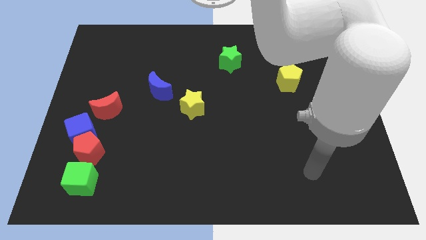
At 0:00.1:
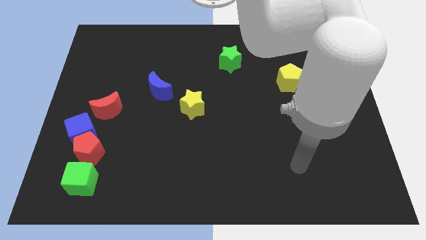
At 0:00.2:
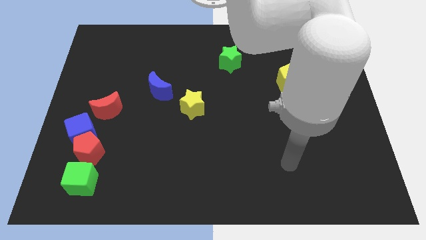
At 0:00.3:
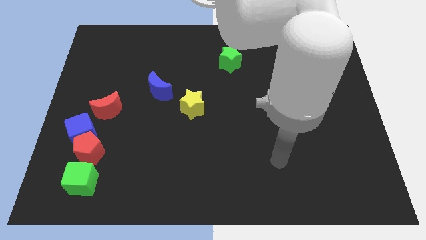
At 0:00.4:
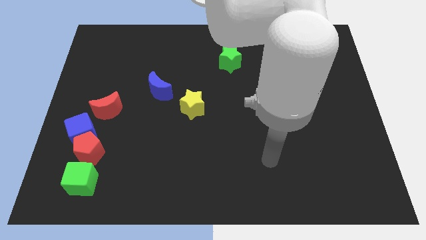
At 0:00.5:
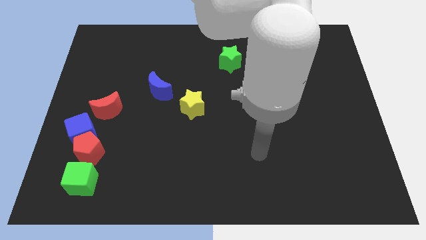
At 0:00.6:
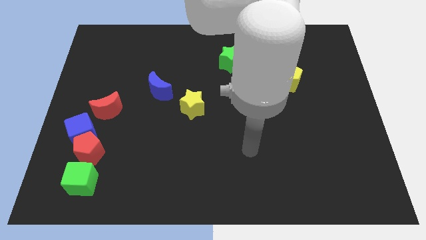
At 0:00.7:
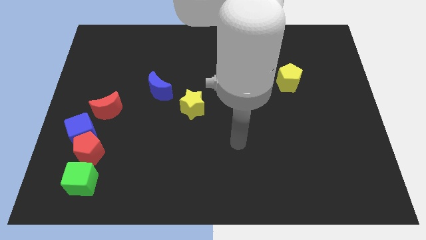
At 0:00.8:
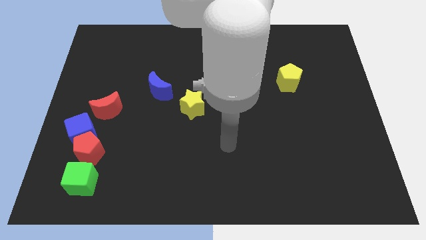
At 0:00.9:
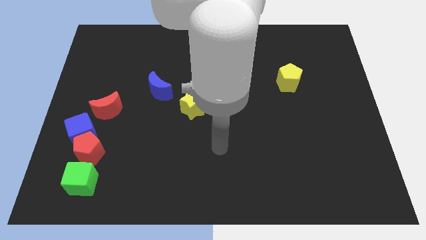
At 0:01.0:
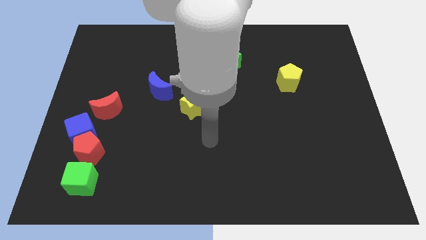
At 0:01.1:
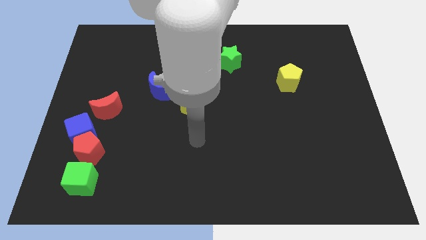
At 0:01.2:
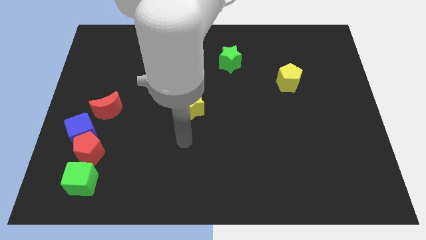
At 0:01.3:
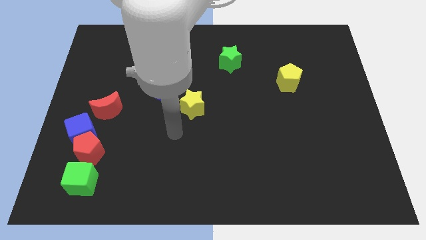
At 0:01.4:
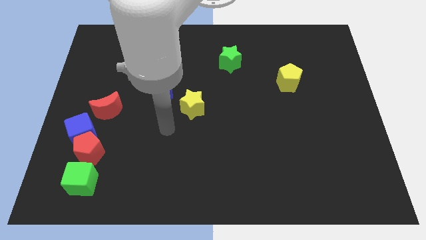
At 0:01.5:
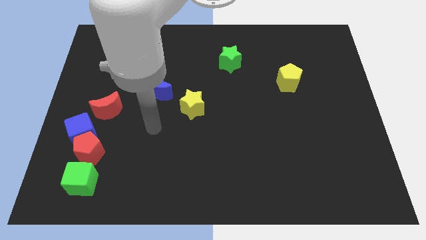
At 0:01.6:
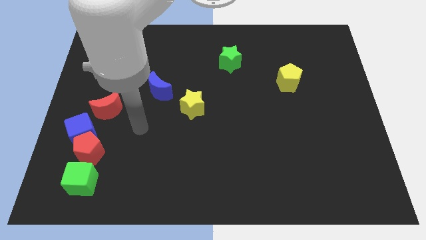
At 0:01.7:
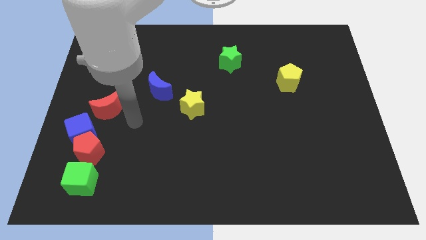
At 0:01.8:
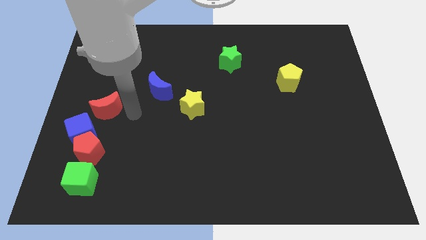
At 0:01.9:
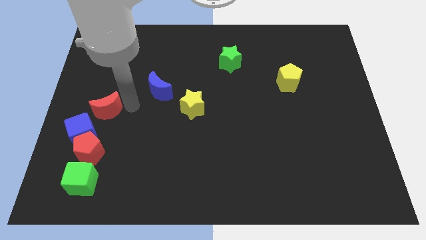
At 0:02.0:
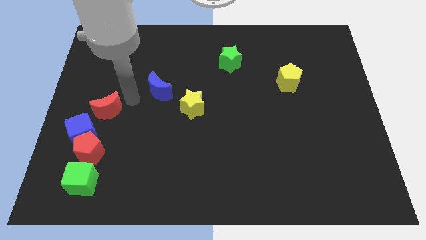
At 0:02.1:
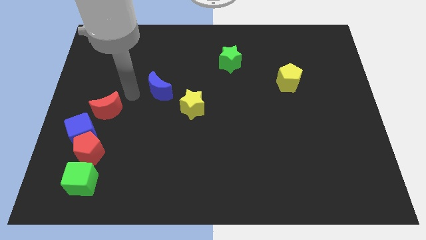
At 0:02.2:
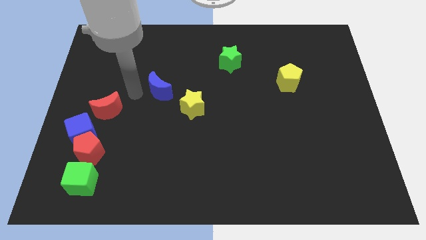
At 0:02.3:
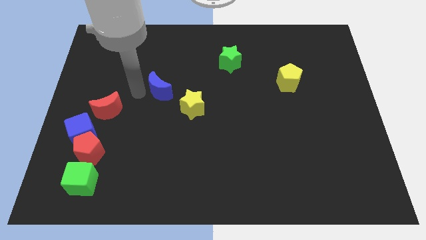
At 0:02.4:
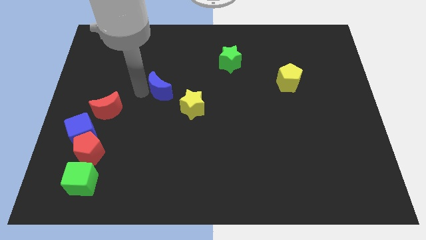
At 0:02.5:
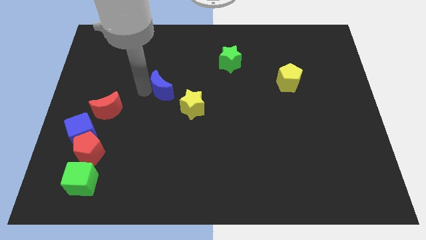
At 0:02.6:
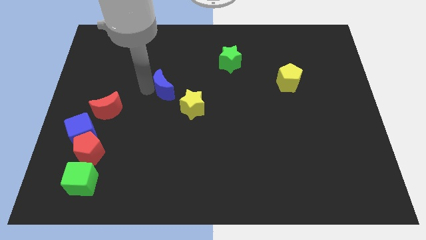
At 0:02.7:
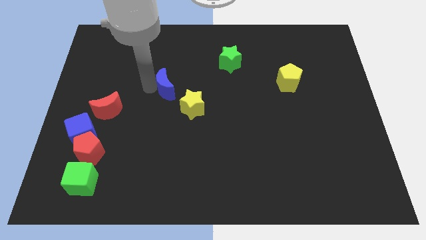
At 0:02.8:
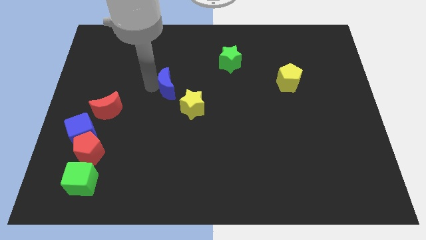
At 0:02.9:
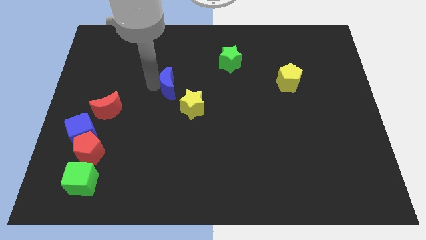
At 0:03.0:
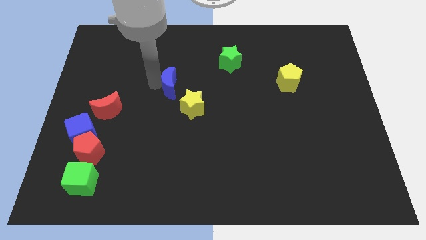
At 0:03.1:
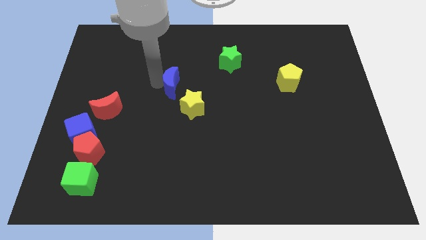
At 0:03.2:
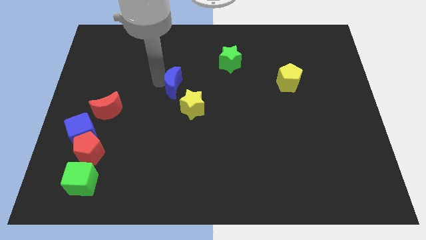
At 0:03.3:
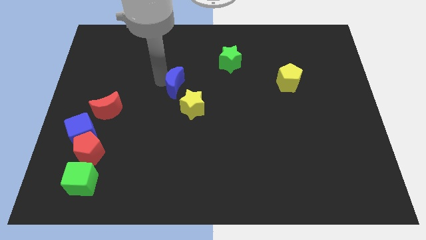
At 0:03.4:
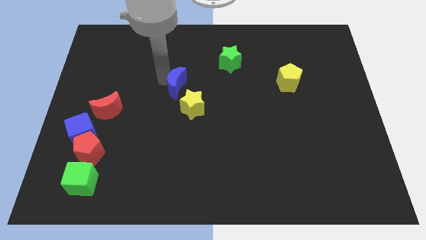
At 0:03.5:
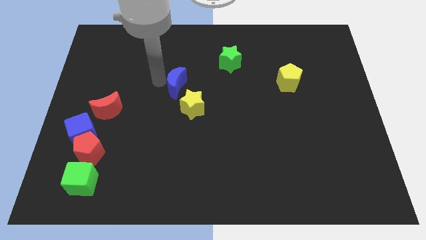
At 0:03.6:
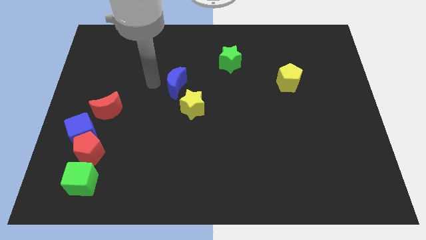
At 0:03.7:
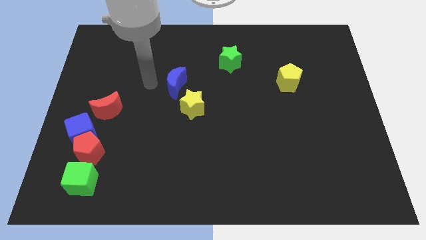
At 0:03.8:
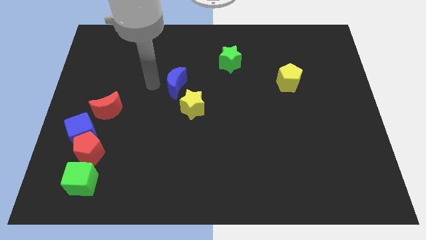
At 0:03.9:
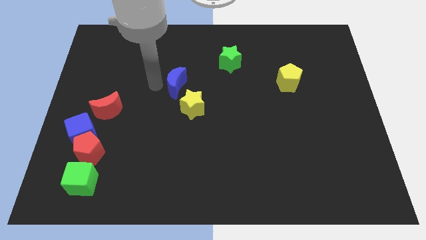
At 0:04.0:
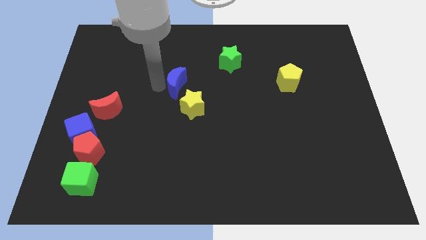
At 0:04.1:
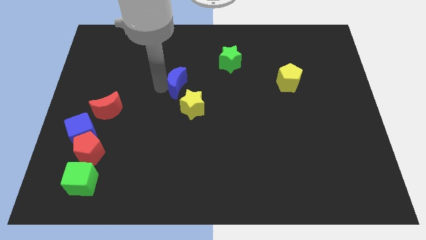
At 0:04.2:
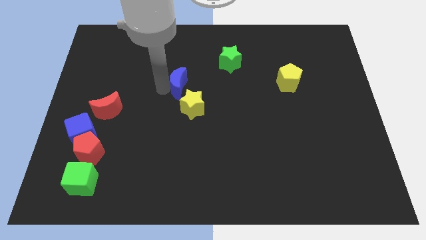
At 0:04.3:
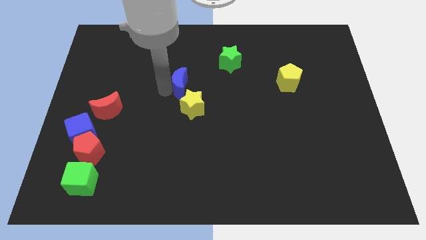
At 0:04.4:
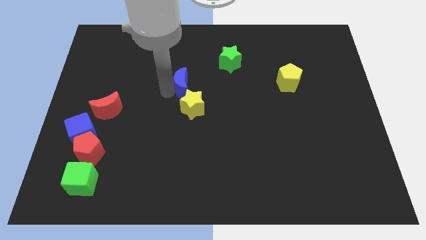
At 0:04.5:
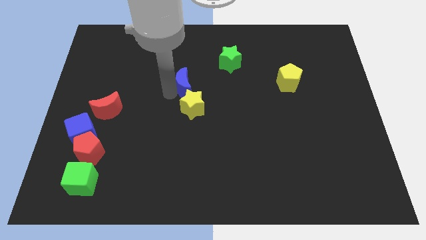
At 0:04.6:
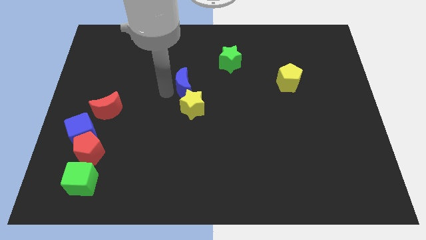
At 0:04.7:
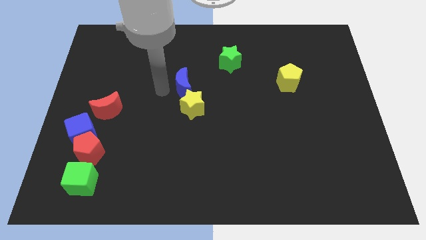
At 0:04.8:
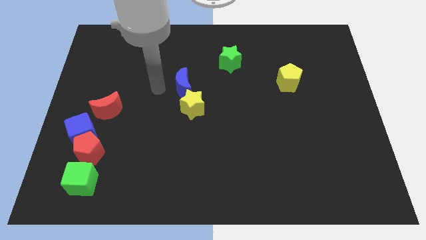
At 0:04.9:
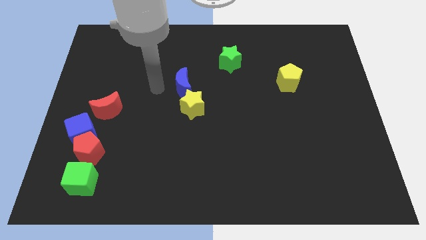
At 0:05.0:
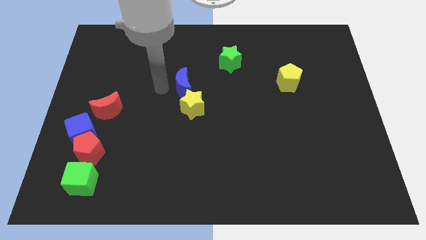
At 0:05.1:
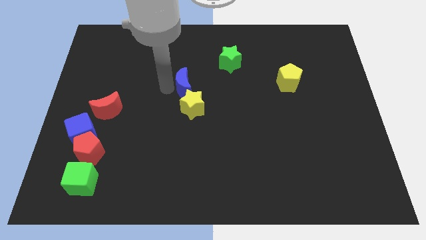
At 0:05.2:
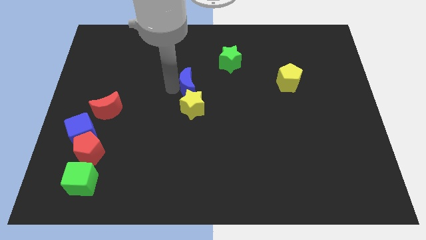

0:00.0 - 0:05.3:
slightly move the blue moon right

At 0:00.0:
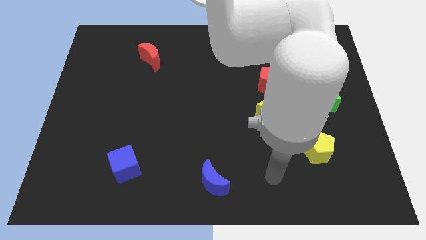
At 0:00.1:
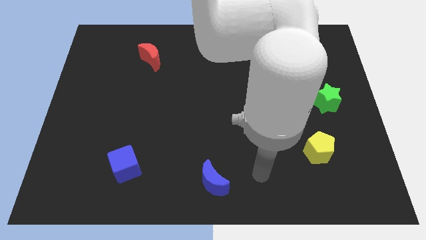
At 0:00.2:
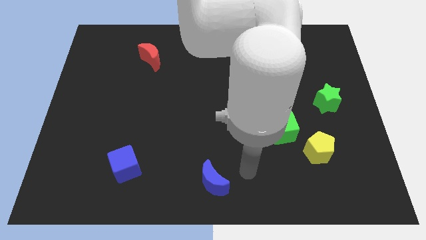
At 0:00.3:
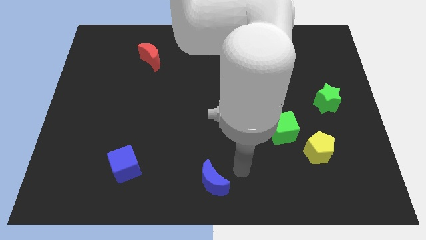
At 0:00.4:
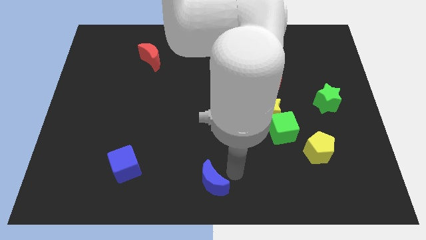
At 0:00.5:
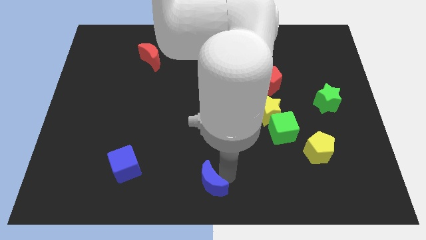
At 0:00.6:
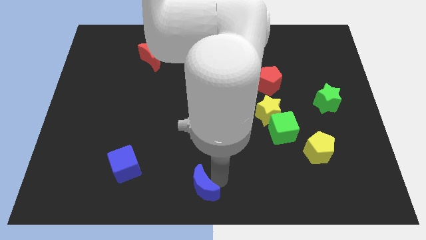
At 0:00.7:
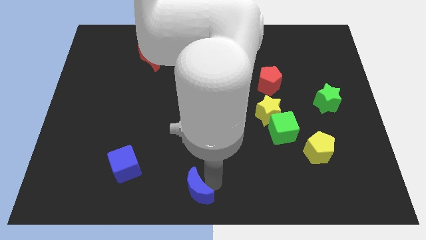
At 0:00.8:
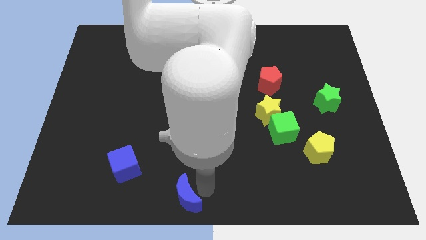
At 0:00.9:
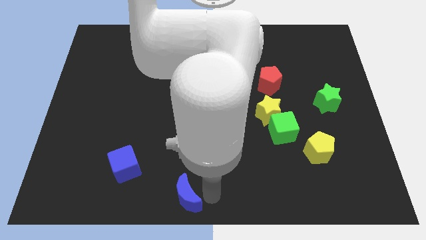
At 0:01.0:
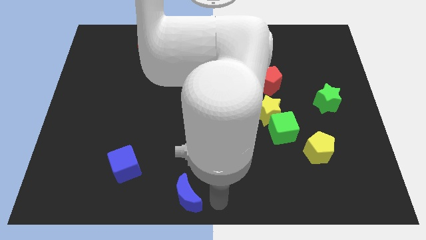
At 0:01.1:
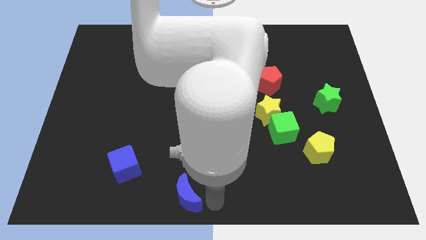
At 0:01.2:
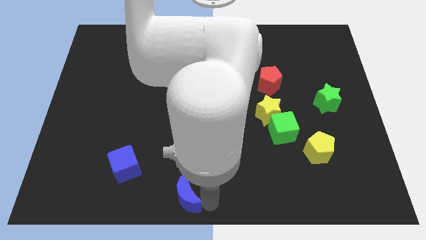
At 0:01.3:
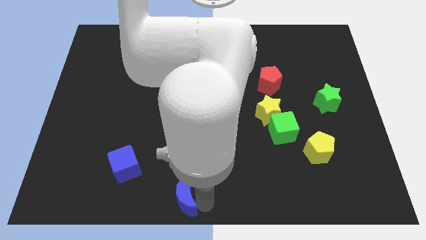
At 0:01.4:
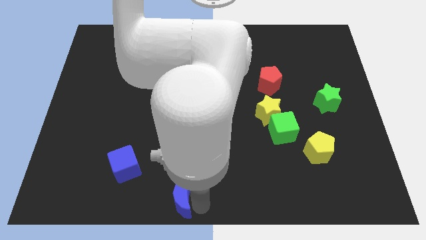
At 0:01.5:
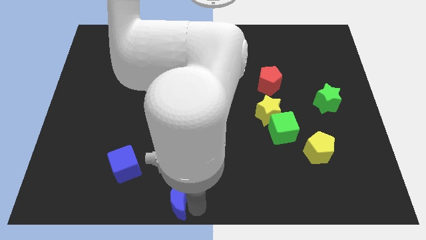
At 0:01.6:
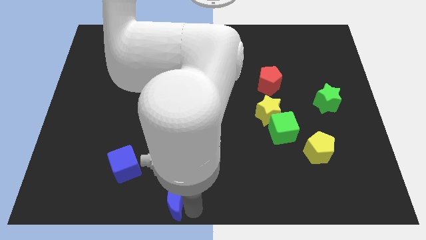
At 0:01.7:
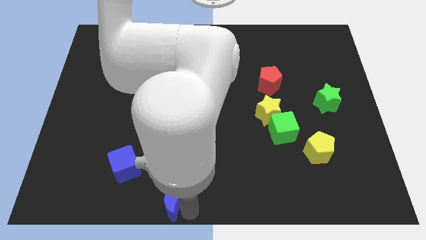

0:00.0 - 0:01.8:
push the blue moon left slightly

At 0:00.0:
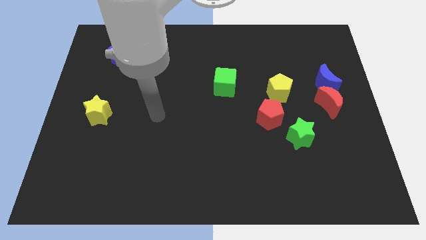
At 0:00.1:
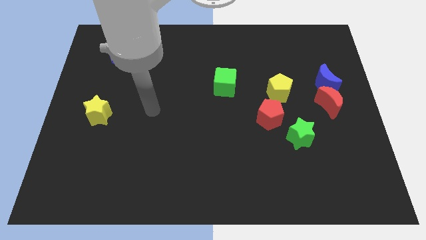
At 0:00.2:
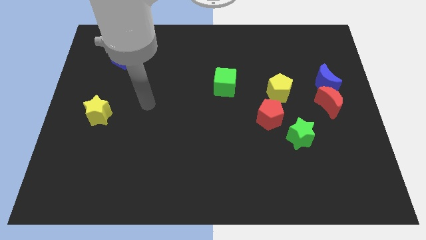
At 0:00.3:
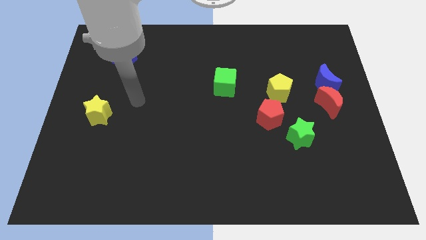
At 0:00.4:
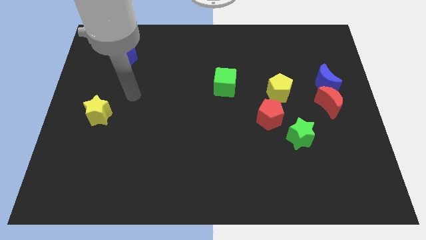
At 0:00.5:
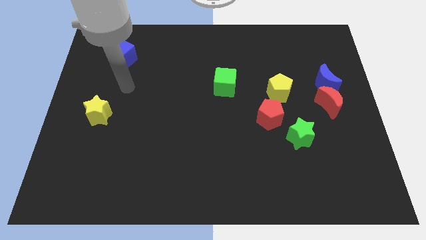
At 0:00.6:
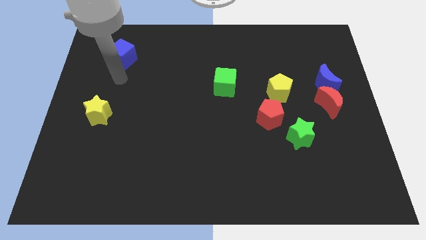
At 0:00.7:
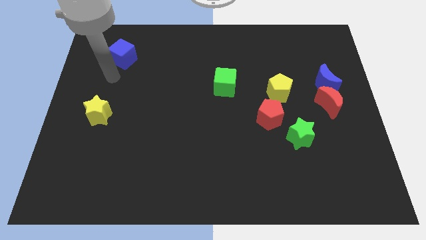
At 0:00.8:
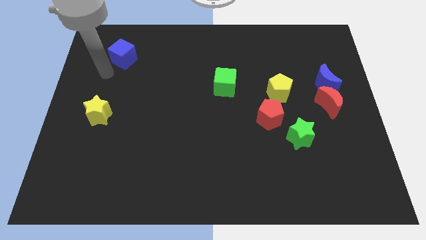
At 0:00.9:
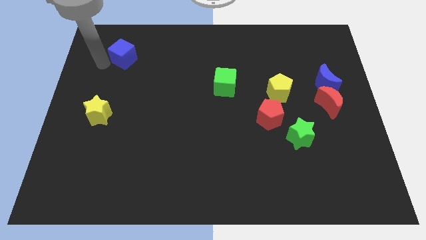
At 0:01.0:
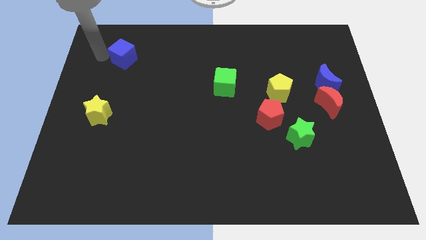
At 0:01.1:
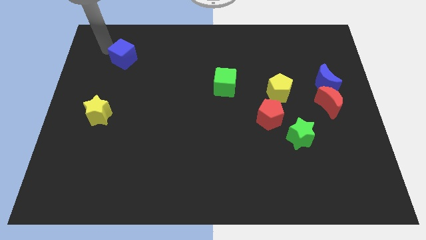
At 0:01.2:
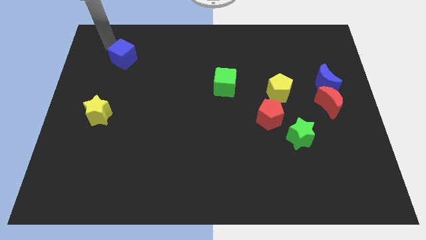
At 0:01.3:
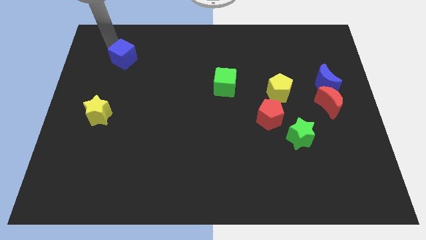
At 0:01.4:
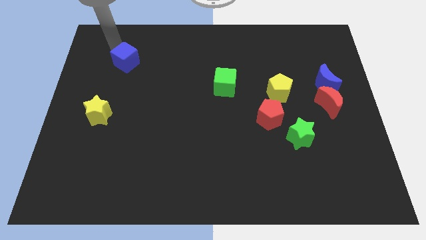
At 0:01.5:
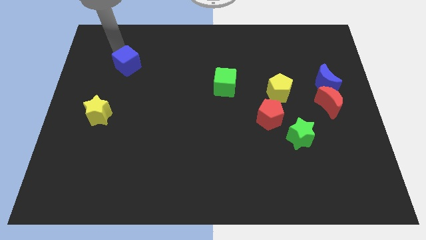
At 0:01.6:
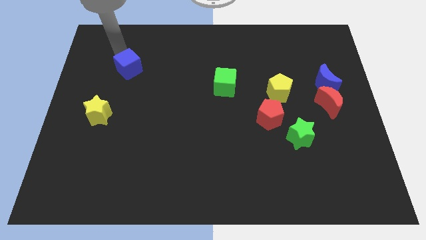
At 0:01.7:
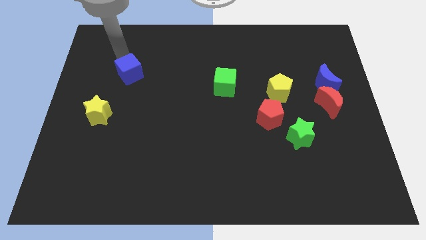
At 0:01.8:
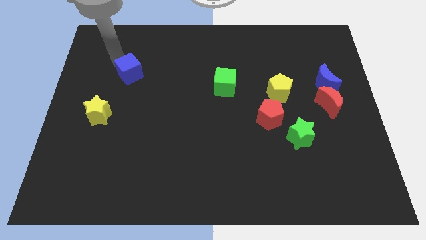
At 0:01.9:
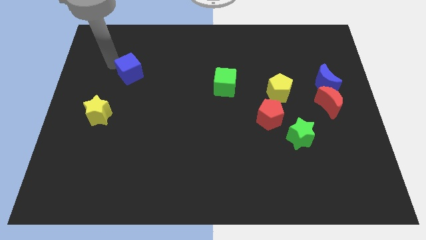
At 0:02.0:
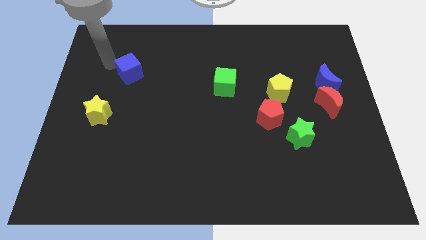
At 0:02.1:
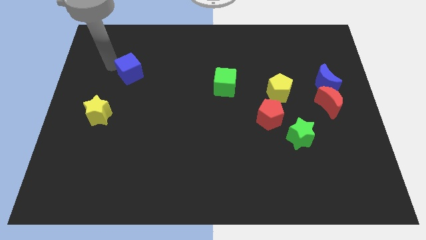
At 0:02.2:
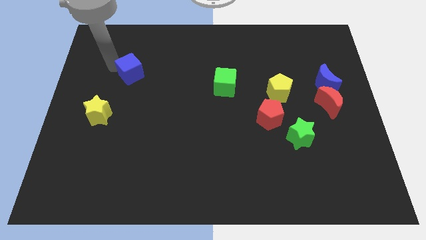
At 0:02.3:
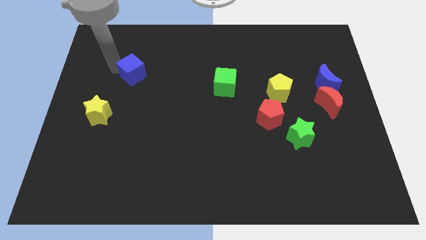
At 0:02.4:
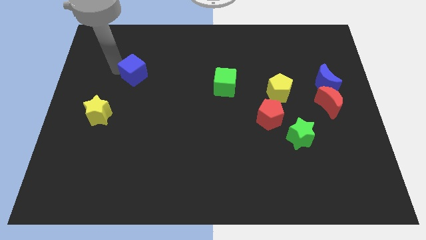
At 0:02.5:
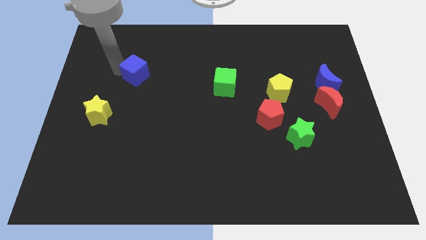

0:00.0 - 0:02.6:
move the blue cube downwards and right diagonally a bit
